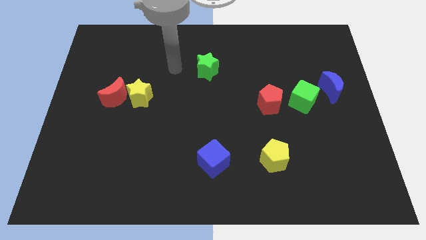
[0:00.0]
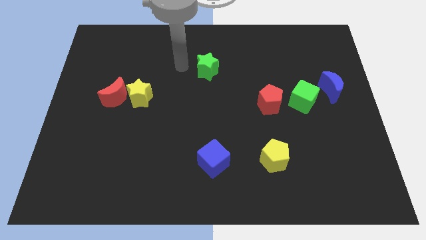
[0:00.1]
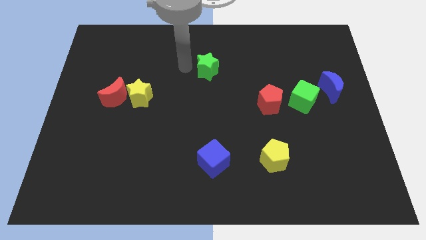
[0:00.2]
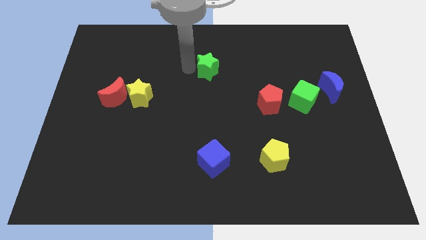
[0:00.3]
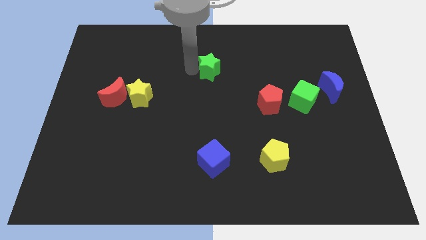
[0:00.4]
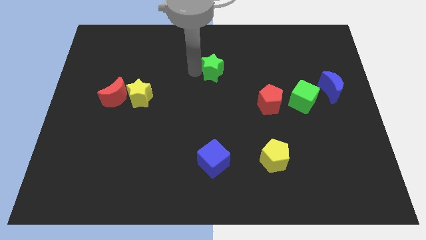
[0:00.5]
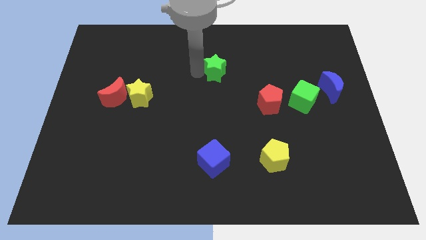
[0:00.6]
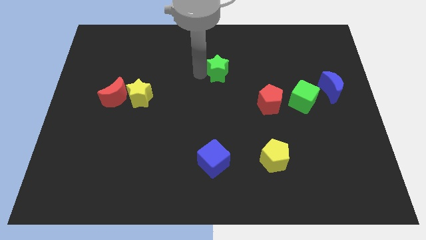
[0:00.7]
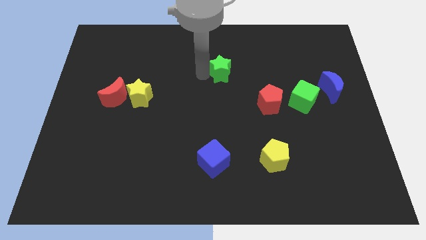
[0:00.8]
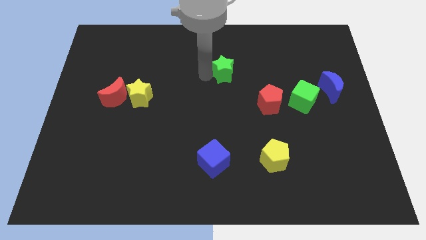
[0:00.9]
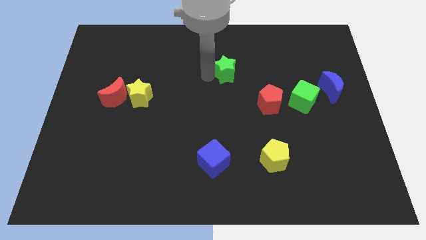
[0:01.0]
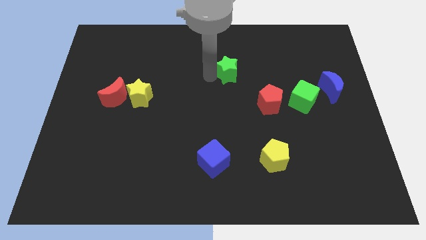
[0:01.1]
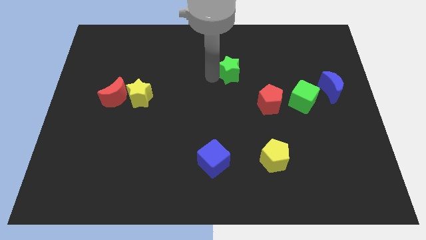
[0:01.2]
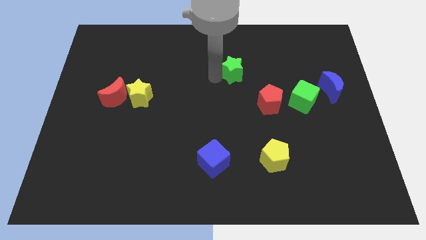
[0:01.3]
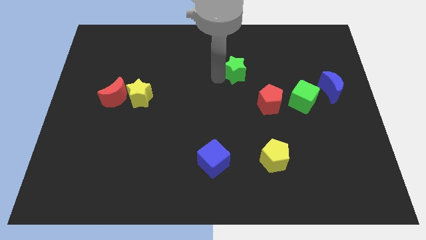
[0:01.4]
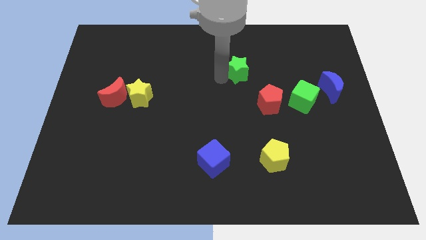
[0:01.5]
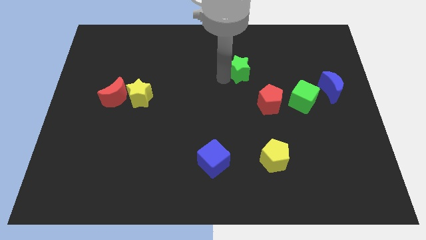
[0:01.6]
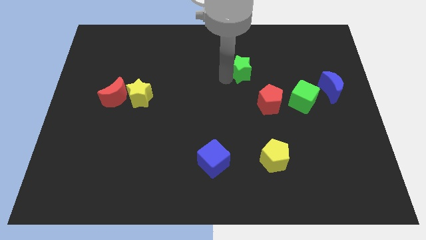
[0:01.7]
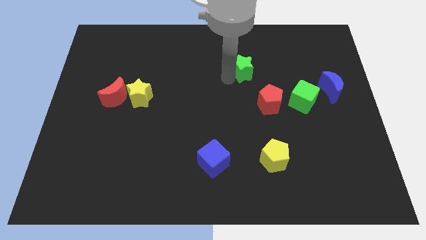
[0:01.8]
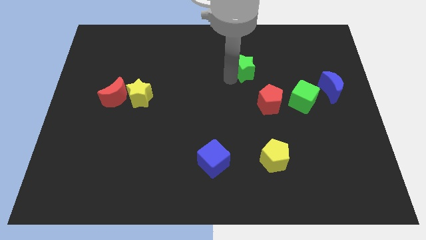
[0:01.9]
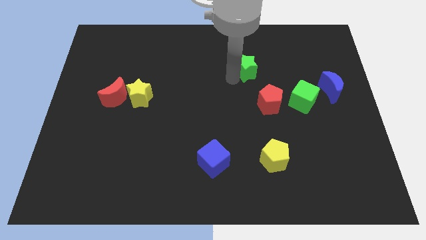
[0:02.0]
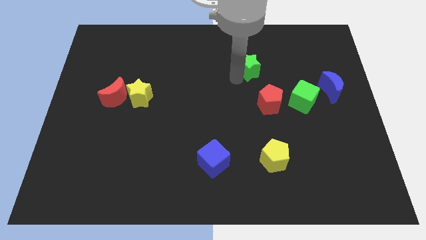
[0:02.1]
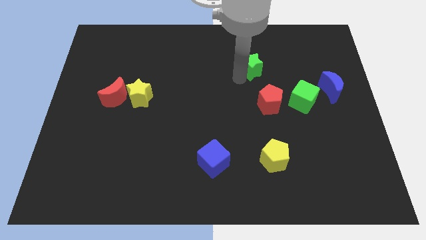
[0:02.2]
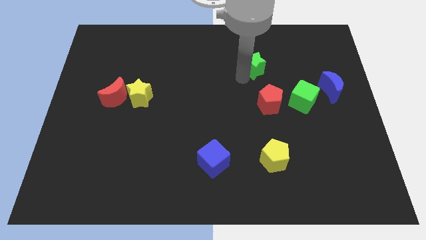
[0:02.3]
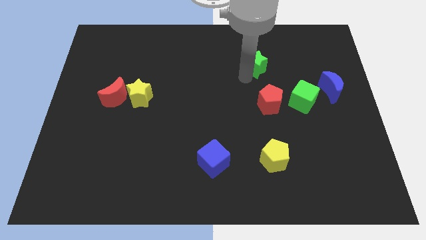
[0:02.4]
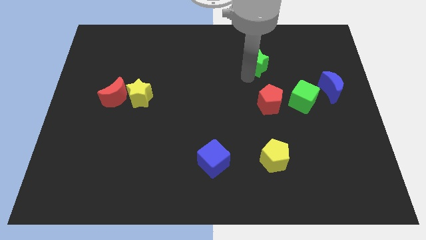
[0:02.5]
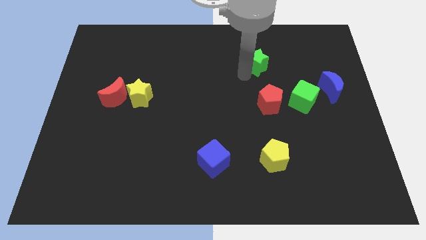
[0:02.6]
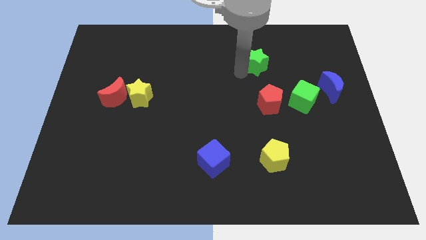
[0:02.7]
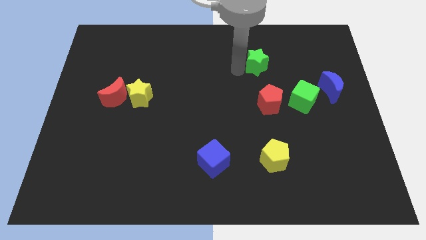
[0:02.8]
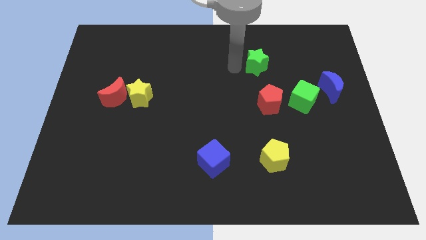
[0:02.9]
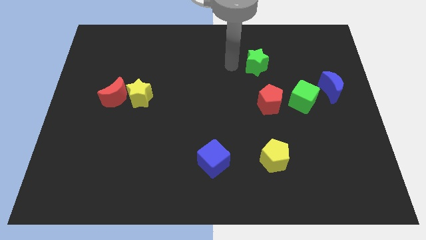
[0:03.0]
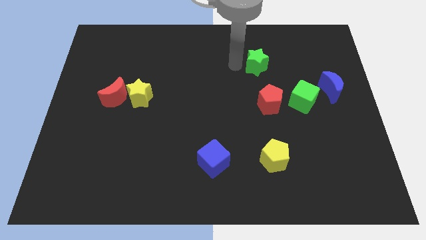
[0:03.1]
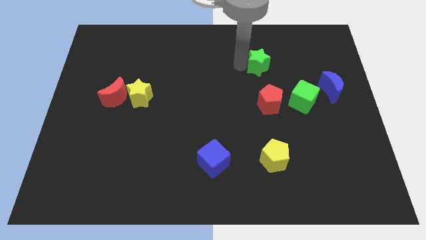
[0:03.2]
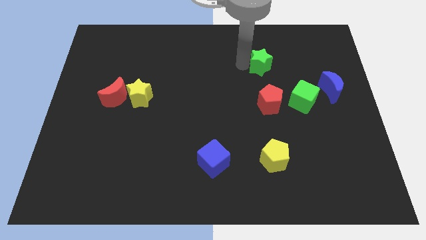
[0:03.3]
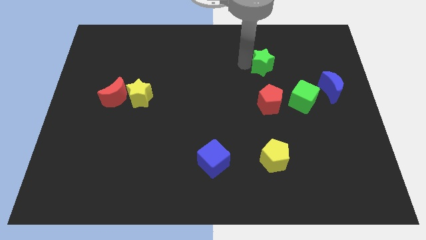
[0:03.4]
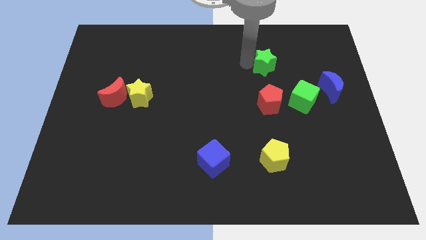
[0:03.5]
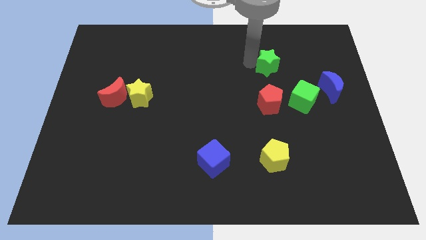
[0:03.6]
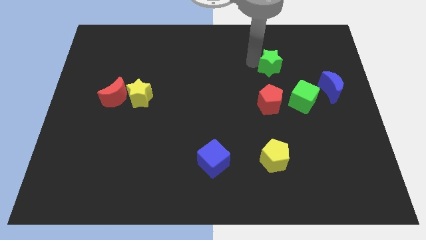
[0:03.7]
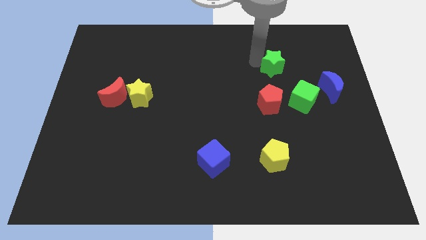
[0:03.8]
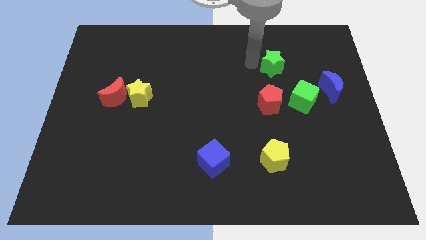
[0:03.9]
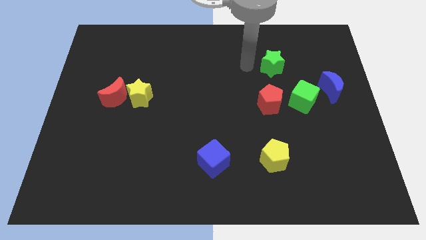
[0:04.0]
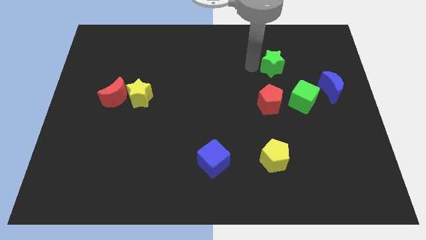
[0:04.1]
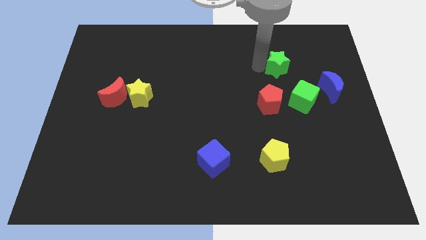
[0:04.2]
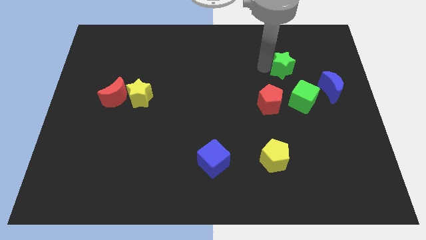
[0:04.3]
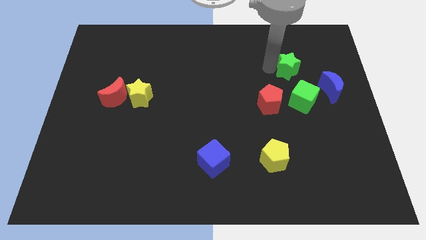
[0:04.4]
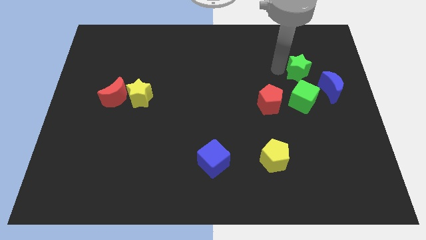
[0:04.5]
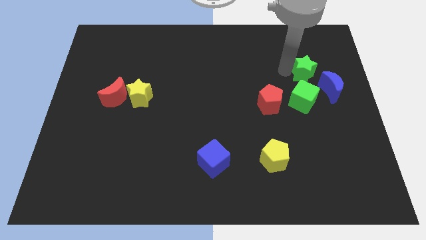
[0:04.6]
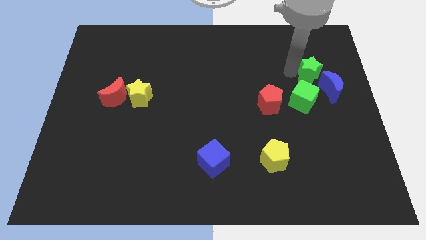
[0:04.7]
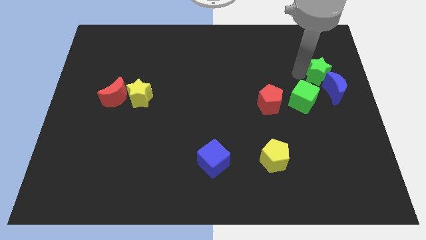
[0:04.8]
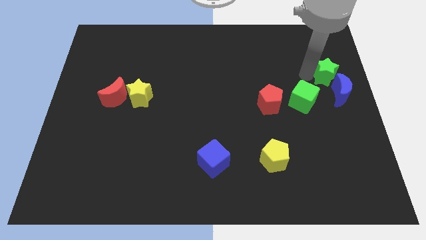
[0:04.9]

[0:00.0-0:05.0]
put the green star to the right side

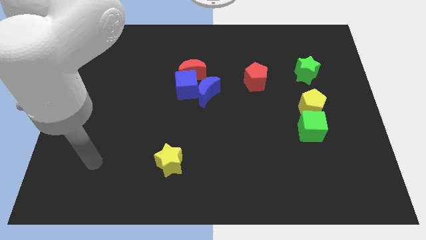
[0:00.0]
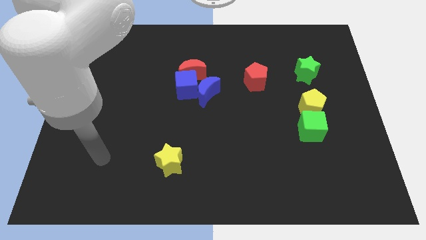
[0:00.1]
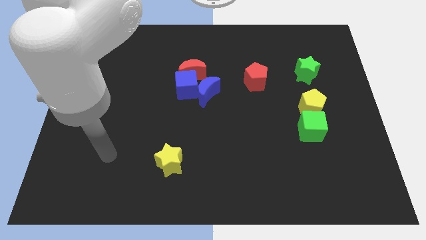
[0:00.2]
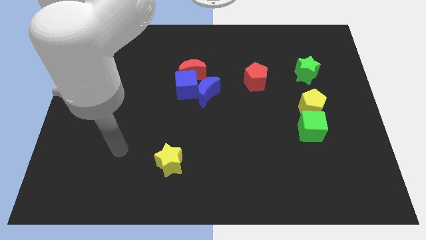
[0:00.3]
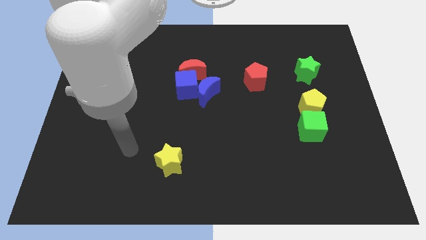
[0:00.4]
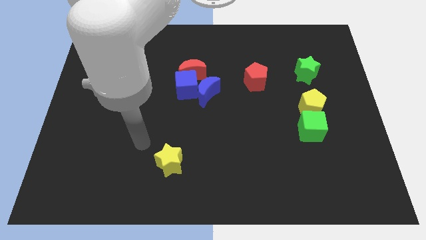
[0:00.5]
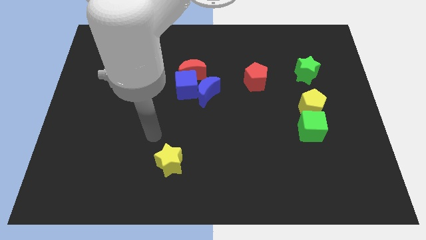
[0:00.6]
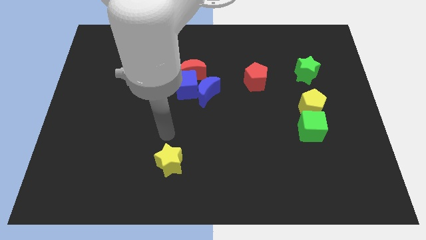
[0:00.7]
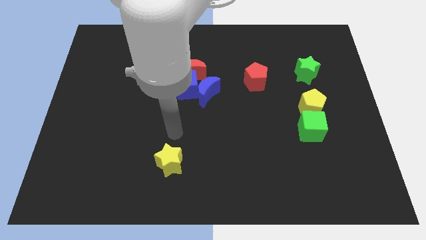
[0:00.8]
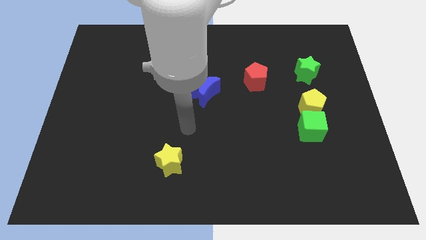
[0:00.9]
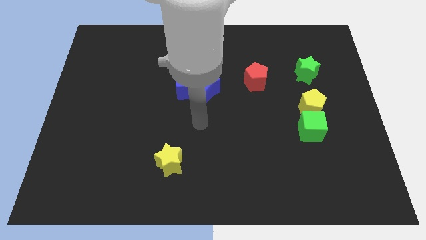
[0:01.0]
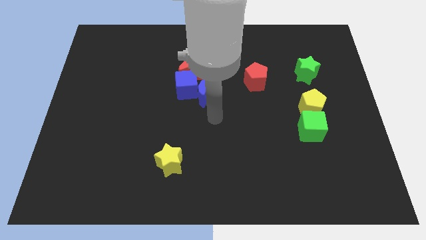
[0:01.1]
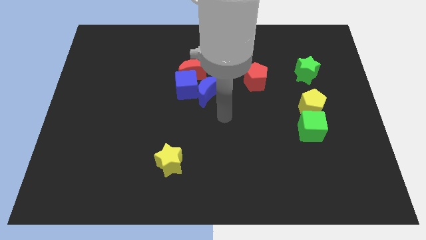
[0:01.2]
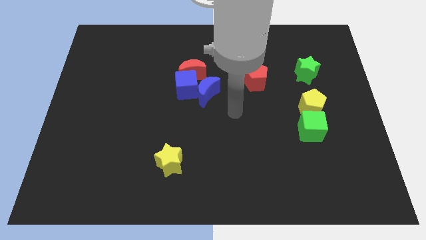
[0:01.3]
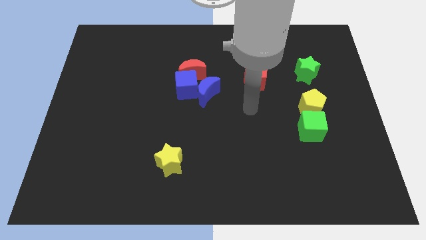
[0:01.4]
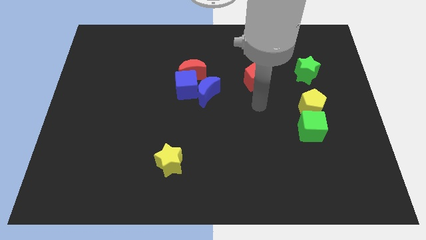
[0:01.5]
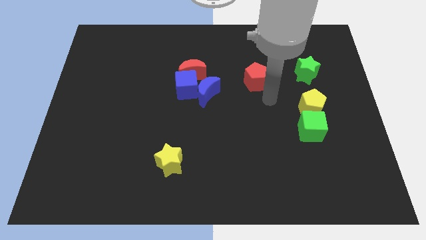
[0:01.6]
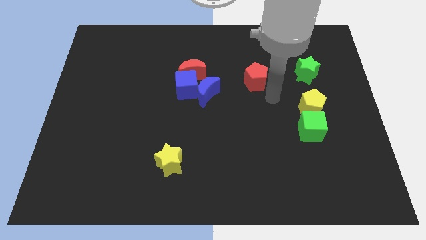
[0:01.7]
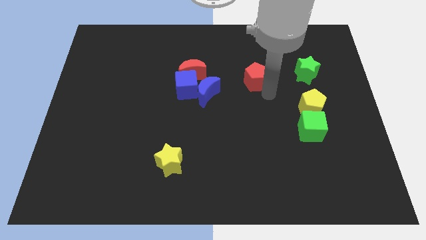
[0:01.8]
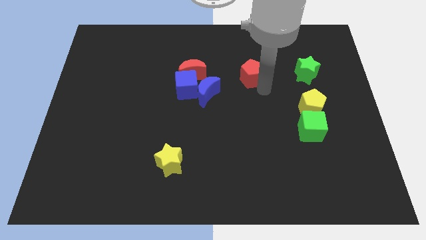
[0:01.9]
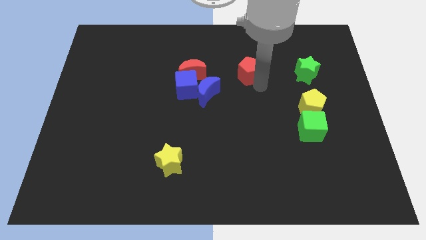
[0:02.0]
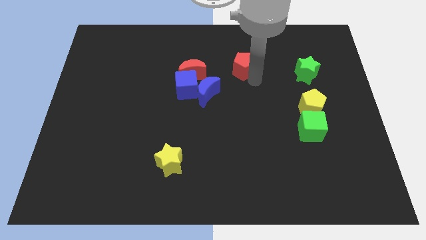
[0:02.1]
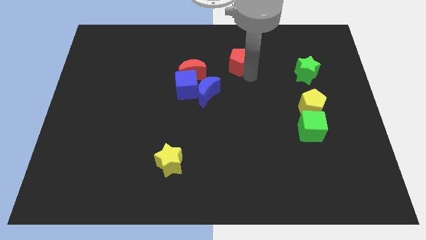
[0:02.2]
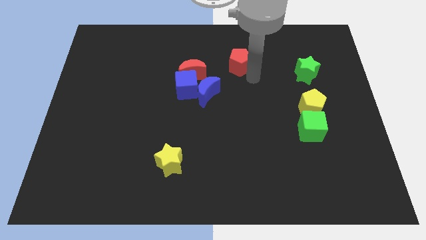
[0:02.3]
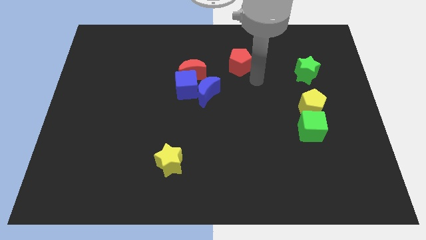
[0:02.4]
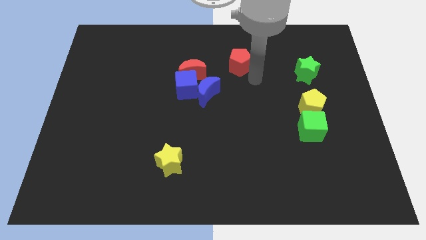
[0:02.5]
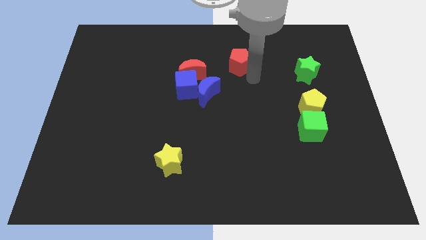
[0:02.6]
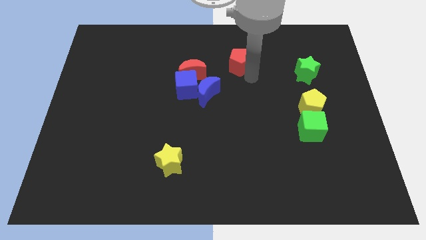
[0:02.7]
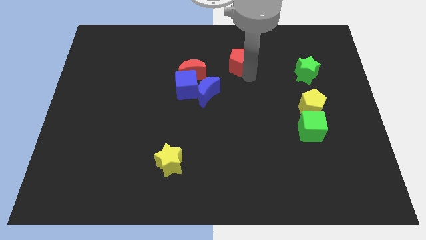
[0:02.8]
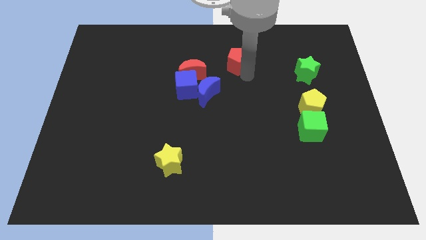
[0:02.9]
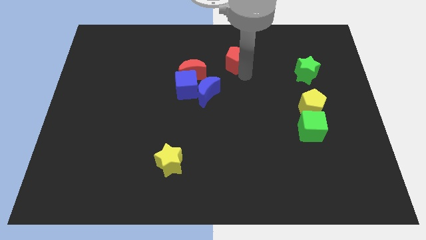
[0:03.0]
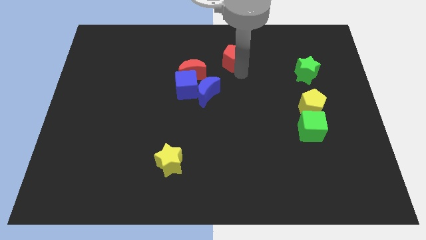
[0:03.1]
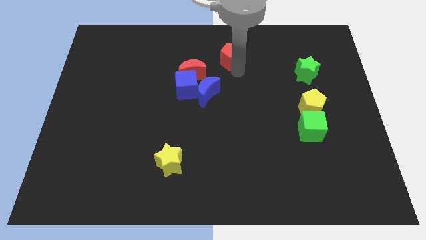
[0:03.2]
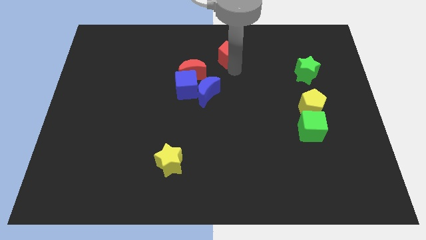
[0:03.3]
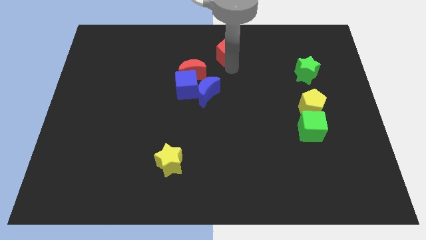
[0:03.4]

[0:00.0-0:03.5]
push the red pentagon to the top
